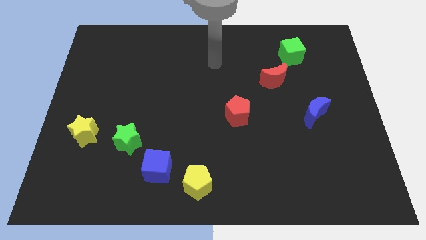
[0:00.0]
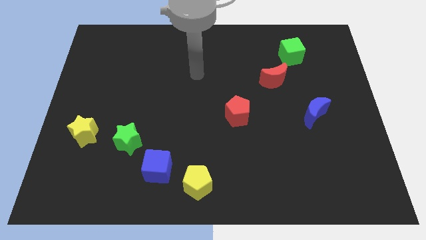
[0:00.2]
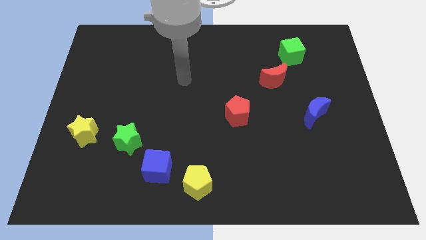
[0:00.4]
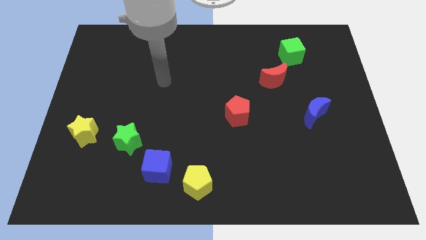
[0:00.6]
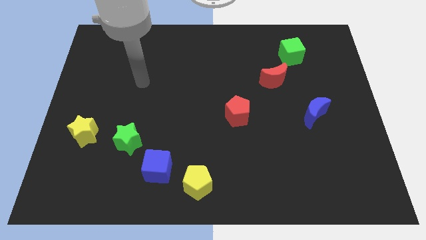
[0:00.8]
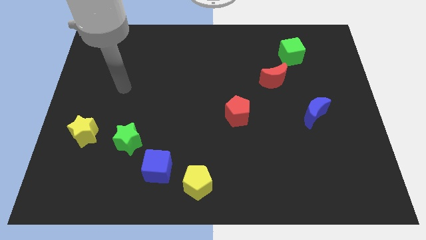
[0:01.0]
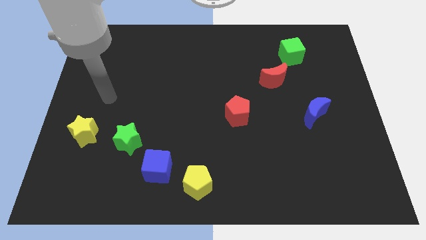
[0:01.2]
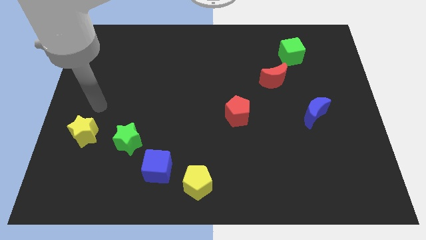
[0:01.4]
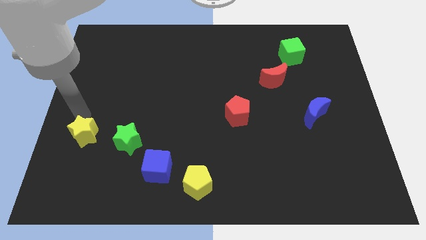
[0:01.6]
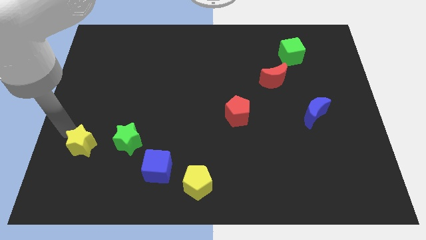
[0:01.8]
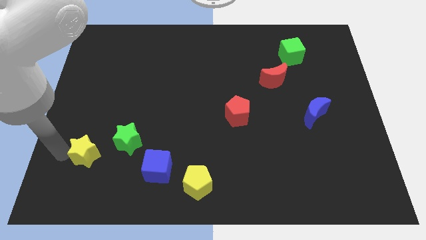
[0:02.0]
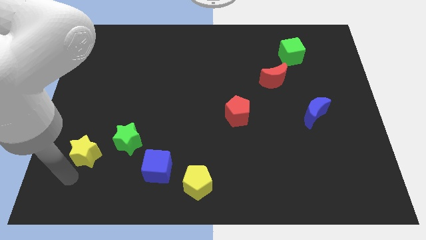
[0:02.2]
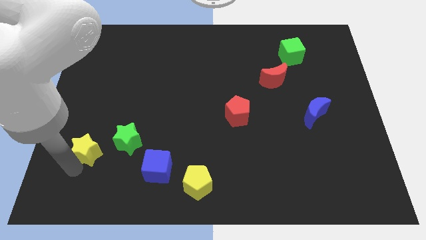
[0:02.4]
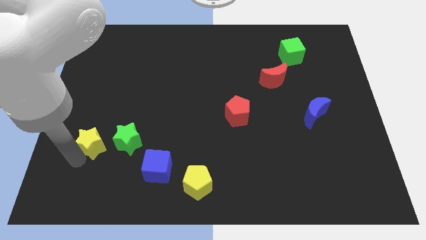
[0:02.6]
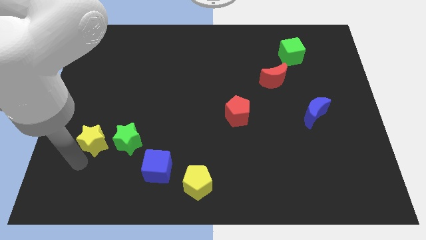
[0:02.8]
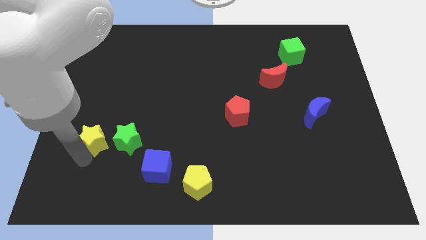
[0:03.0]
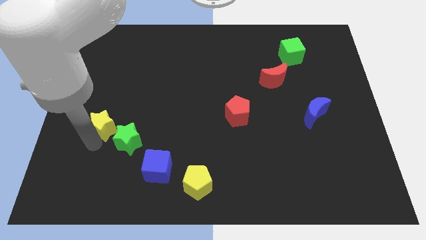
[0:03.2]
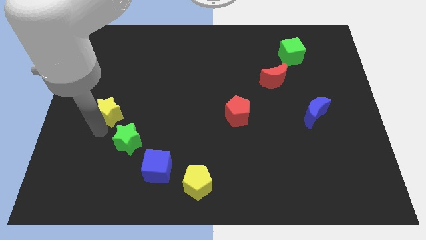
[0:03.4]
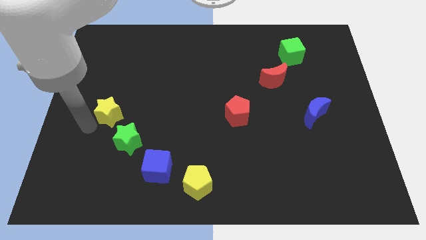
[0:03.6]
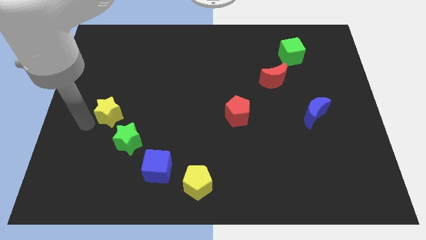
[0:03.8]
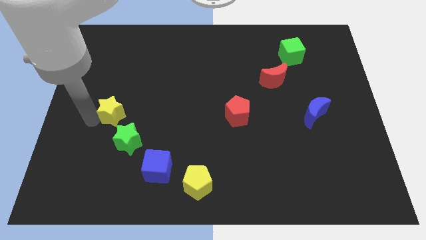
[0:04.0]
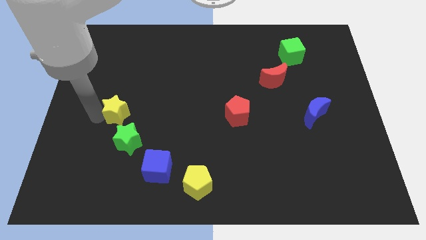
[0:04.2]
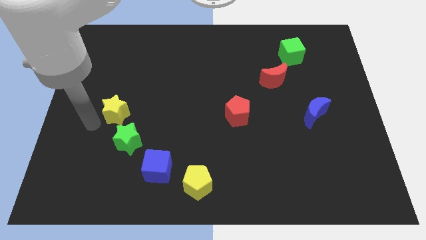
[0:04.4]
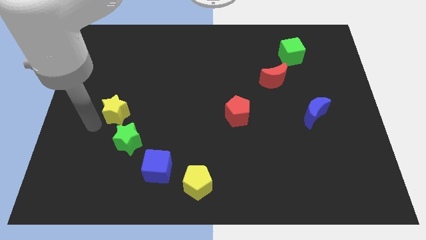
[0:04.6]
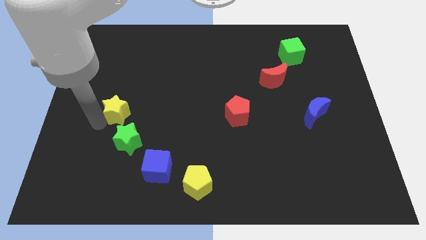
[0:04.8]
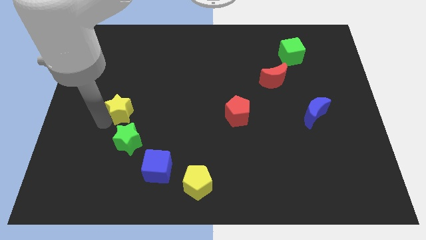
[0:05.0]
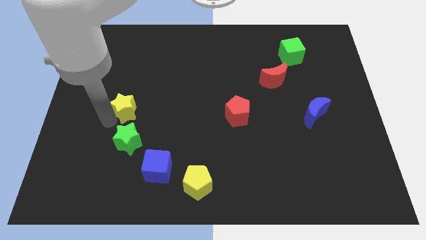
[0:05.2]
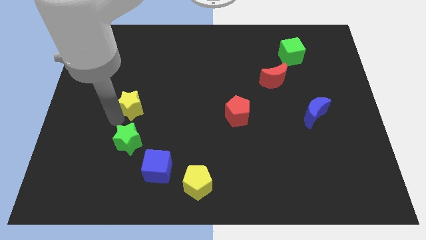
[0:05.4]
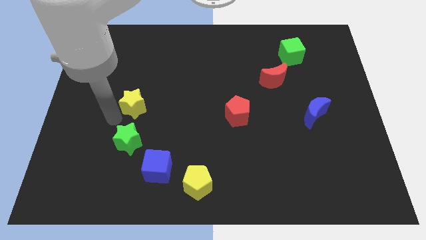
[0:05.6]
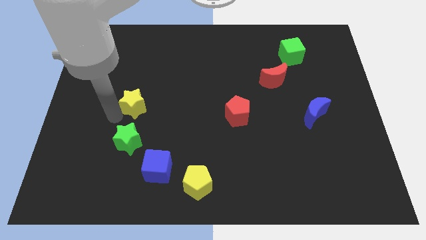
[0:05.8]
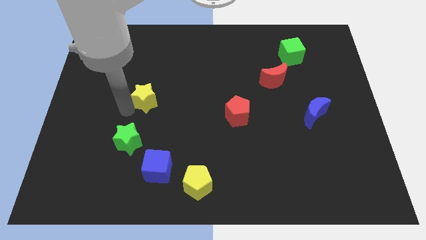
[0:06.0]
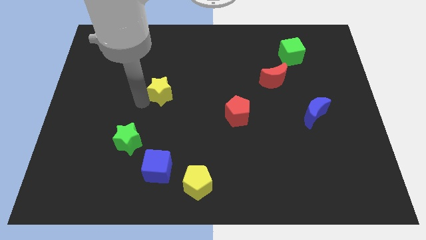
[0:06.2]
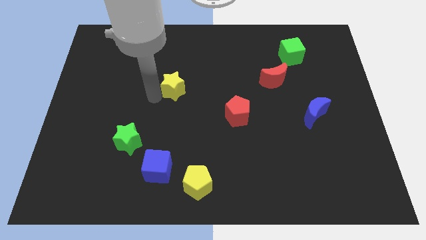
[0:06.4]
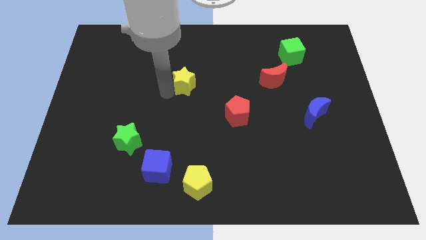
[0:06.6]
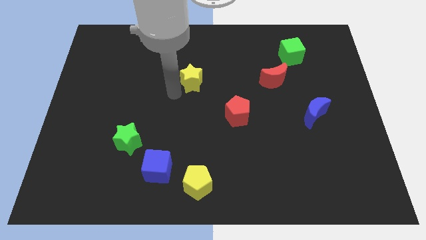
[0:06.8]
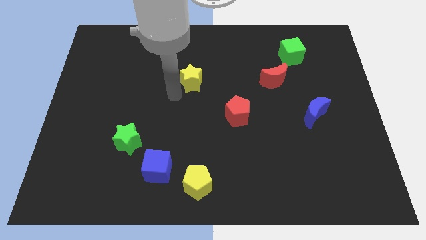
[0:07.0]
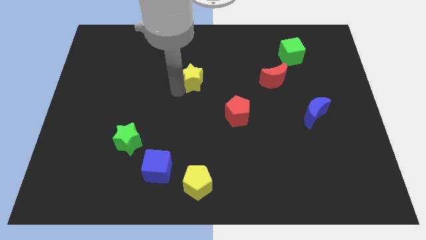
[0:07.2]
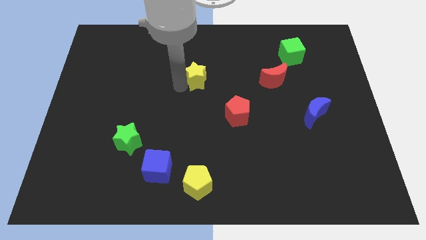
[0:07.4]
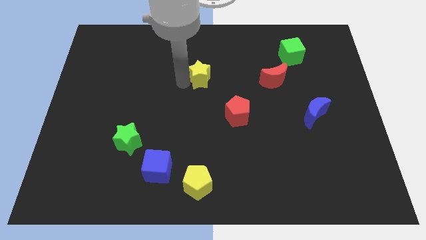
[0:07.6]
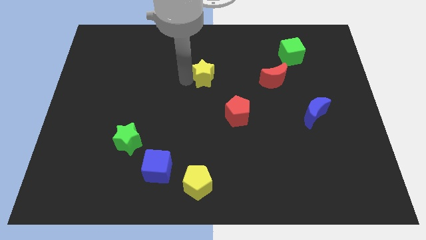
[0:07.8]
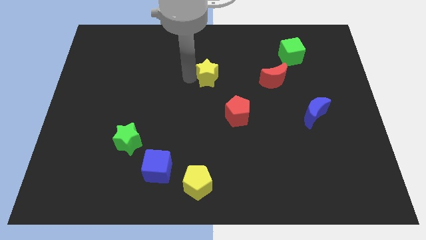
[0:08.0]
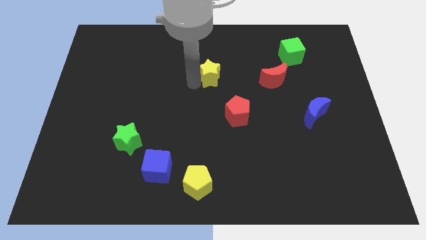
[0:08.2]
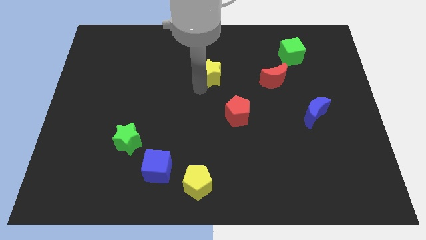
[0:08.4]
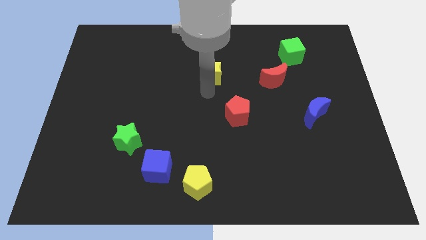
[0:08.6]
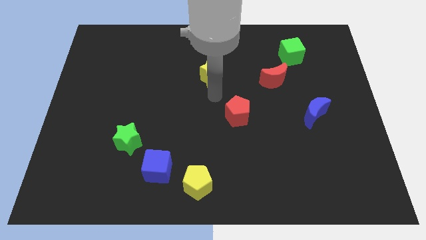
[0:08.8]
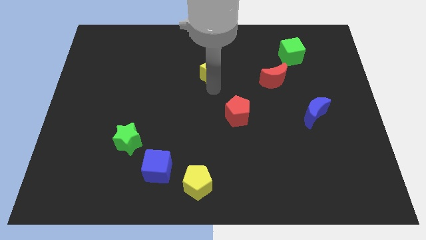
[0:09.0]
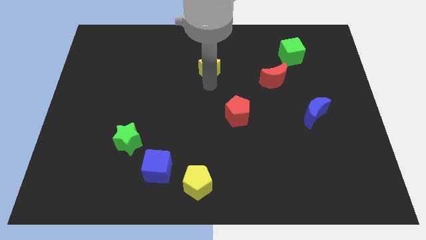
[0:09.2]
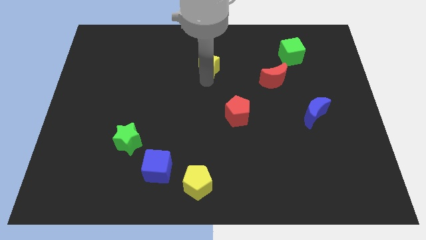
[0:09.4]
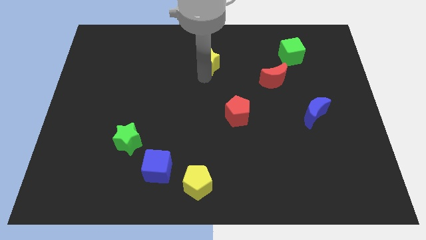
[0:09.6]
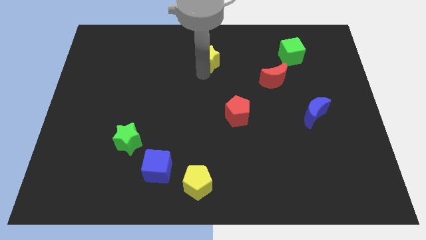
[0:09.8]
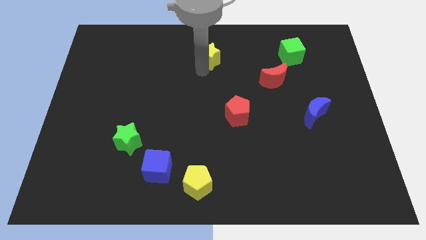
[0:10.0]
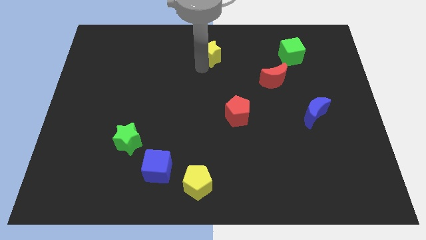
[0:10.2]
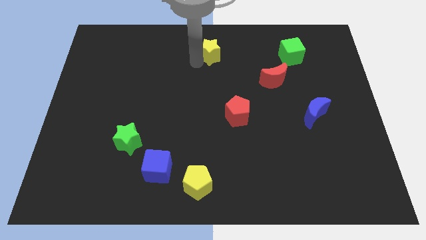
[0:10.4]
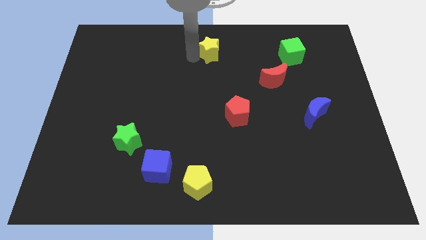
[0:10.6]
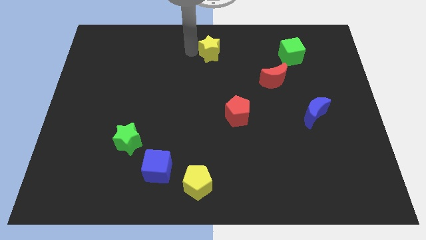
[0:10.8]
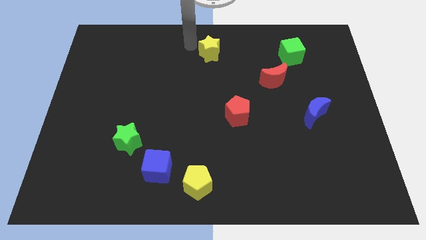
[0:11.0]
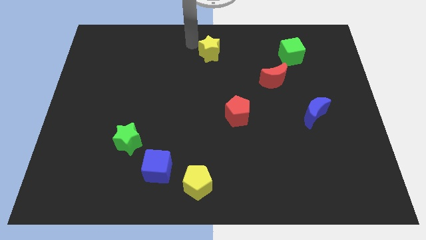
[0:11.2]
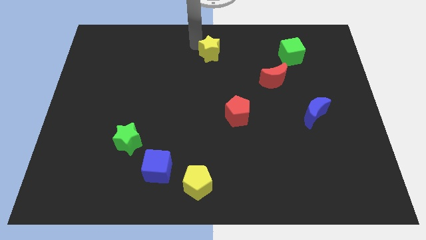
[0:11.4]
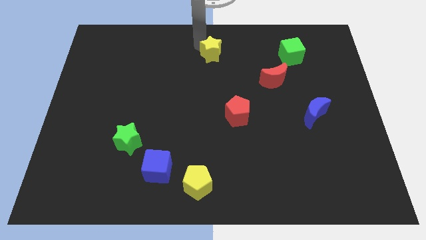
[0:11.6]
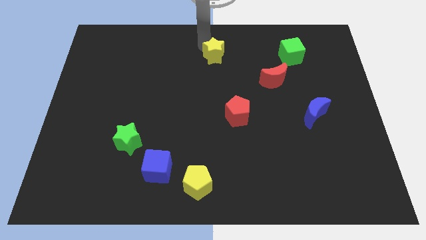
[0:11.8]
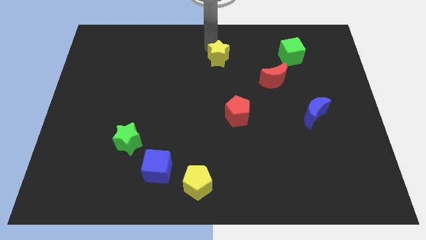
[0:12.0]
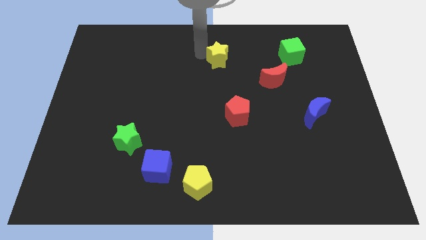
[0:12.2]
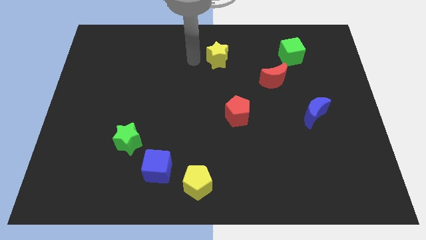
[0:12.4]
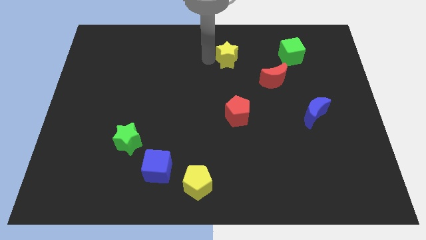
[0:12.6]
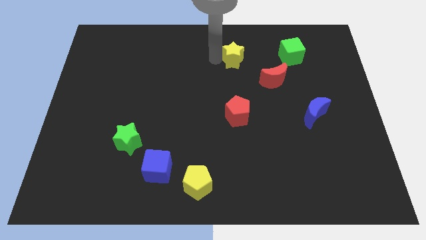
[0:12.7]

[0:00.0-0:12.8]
move the yellow star to the left of the green cube

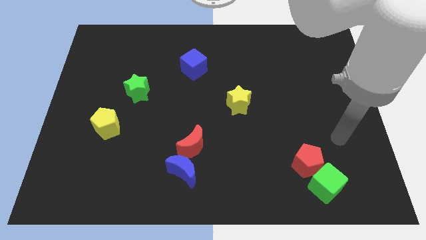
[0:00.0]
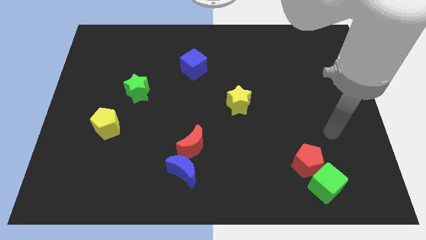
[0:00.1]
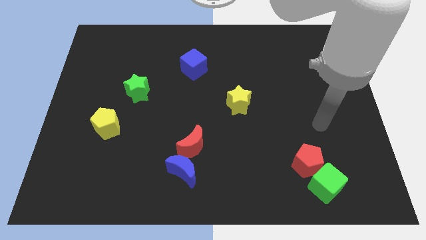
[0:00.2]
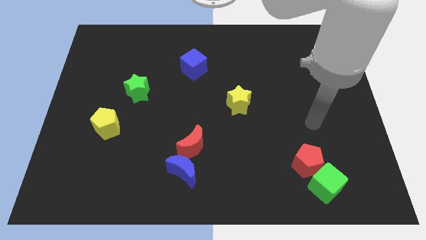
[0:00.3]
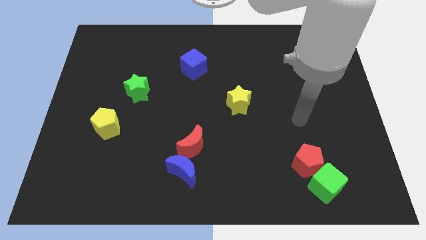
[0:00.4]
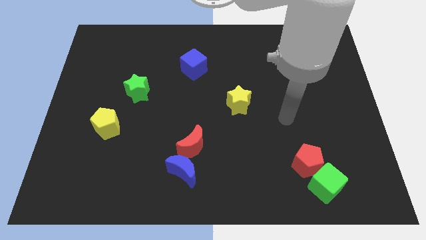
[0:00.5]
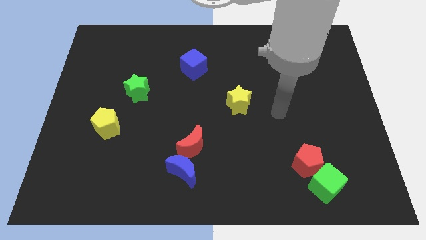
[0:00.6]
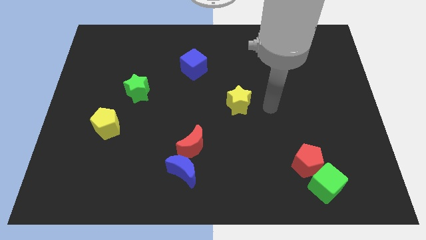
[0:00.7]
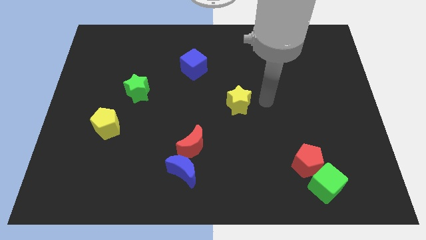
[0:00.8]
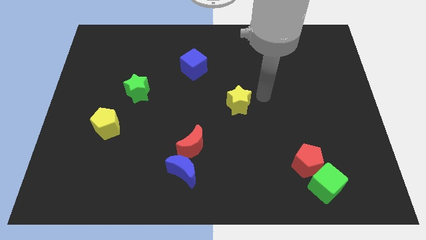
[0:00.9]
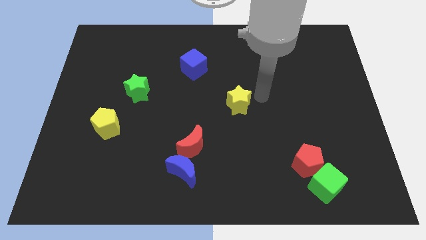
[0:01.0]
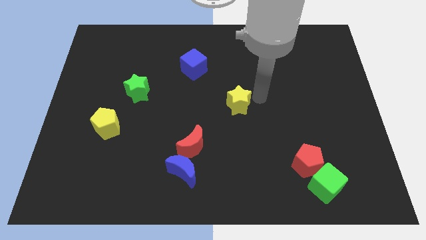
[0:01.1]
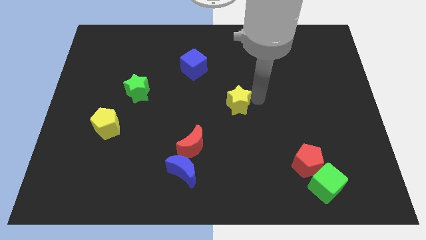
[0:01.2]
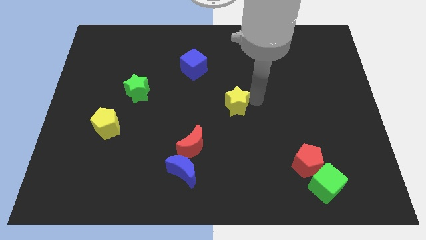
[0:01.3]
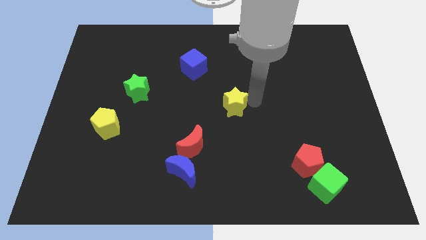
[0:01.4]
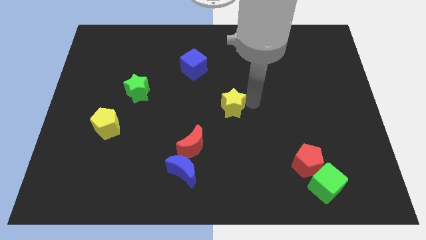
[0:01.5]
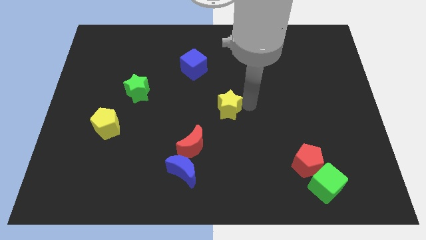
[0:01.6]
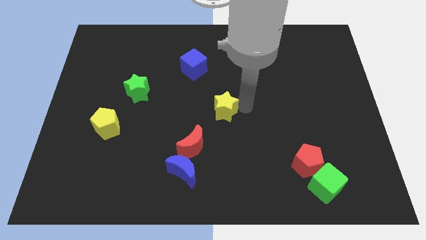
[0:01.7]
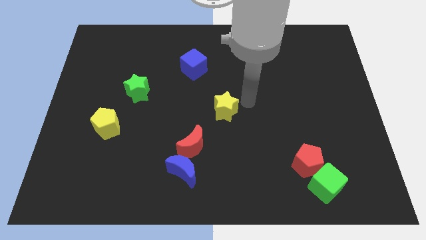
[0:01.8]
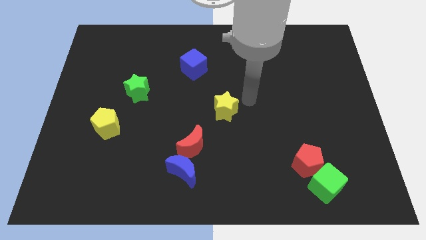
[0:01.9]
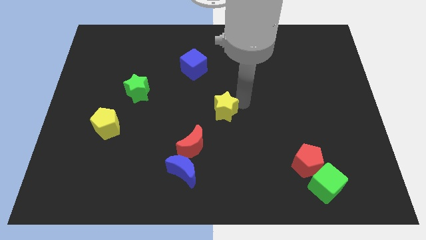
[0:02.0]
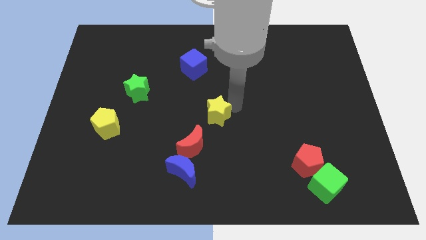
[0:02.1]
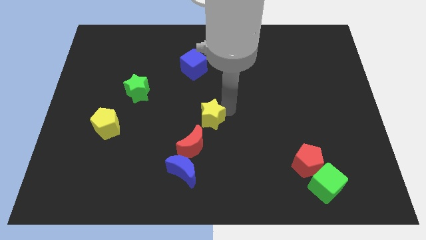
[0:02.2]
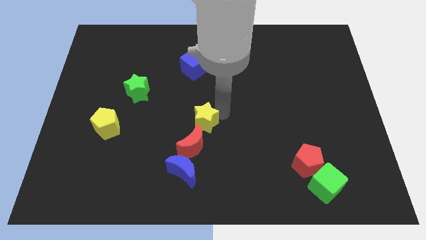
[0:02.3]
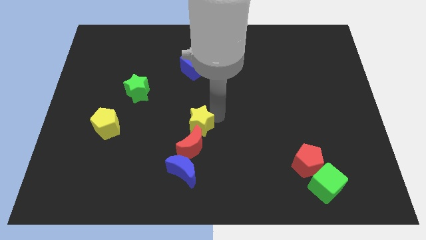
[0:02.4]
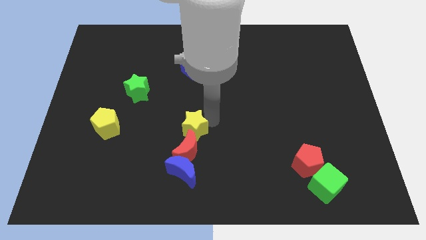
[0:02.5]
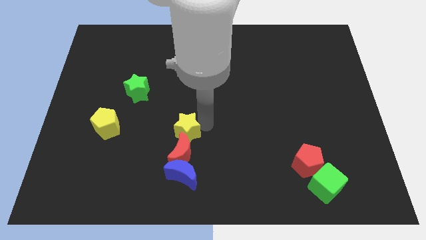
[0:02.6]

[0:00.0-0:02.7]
put the yellow star to the top left side of the red moon
